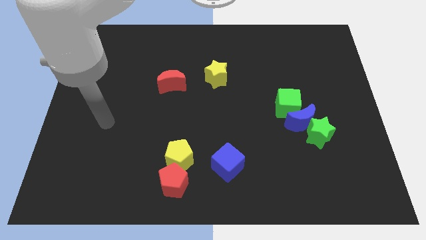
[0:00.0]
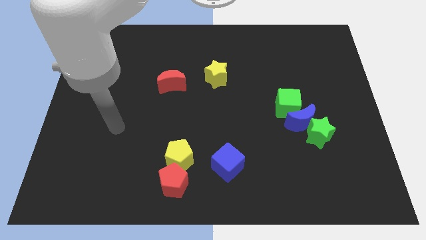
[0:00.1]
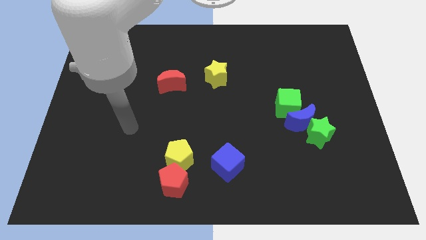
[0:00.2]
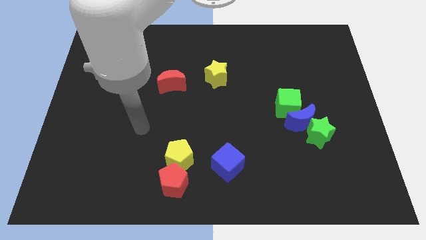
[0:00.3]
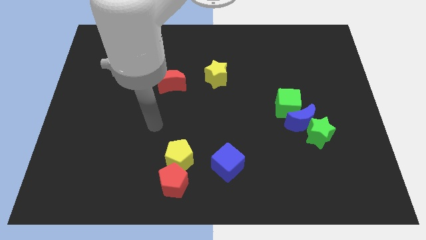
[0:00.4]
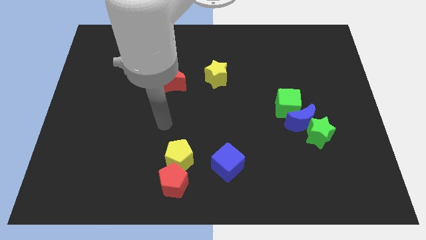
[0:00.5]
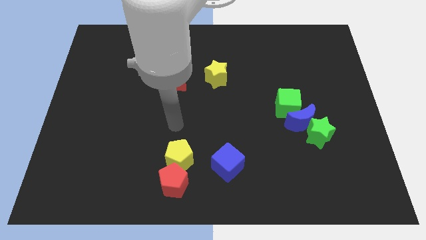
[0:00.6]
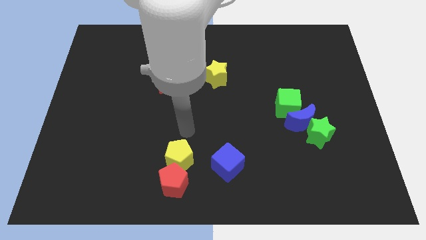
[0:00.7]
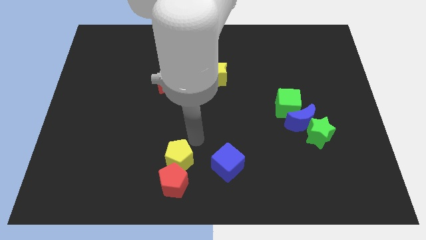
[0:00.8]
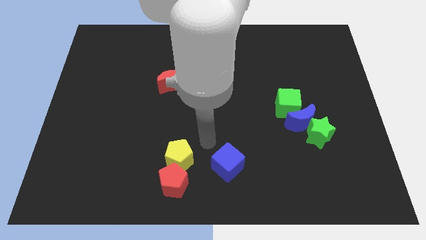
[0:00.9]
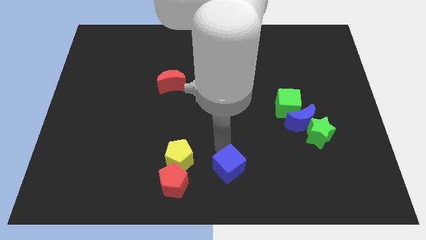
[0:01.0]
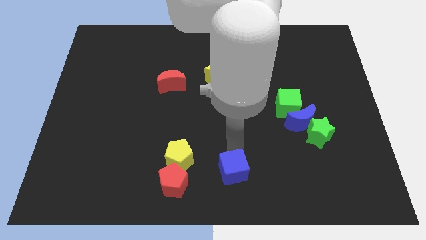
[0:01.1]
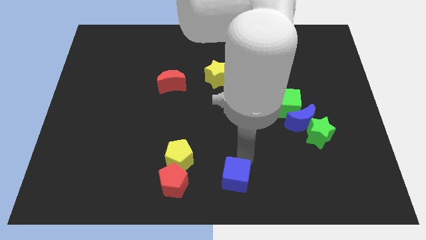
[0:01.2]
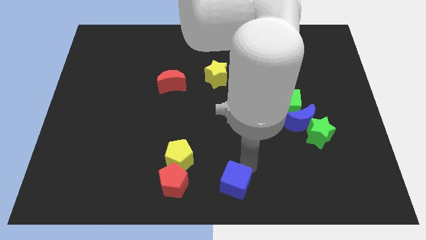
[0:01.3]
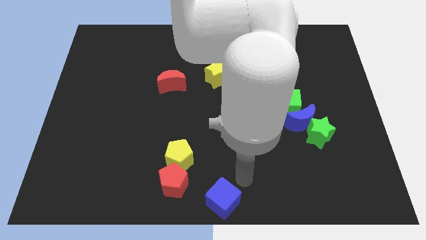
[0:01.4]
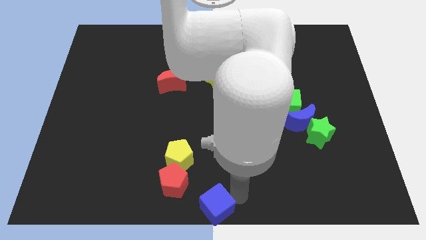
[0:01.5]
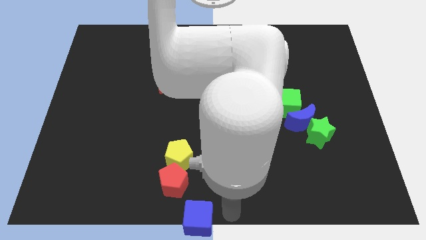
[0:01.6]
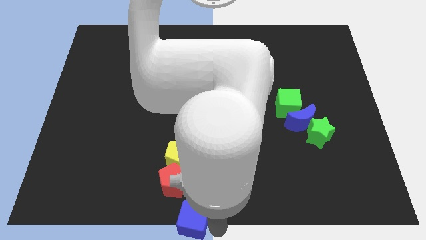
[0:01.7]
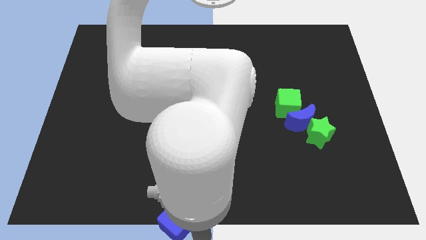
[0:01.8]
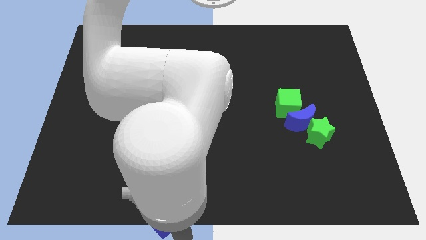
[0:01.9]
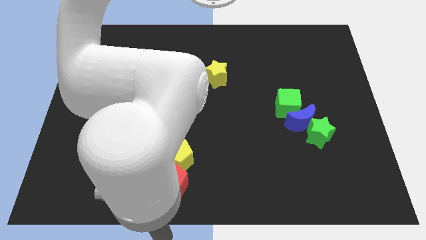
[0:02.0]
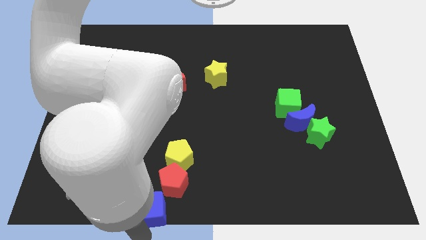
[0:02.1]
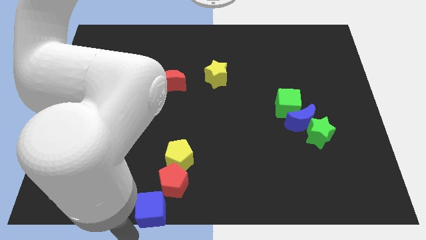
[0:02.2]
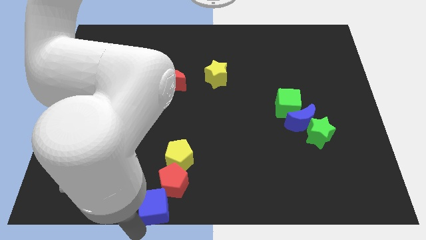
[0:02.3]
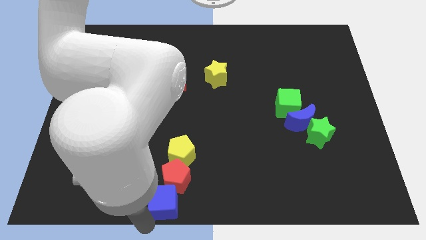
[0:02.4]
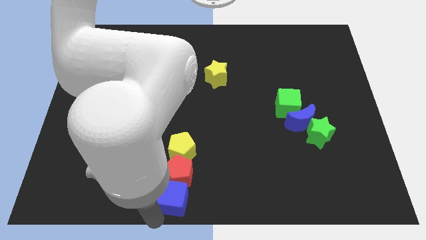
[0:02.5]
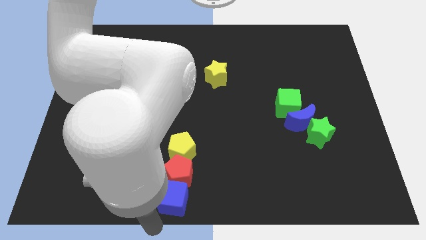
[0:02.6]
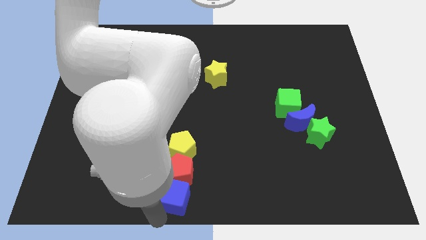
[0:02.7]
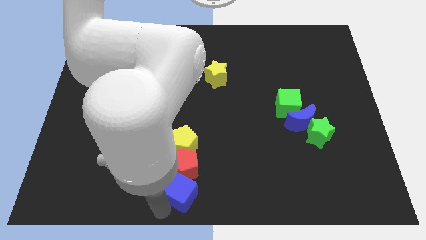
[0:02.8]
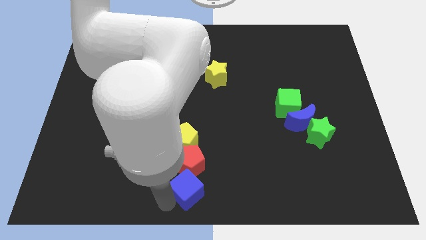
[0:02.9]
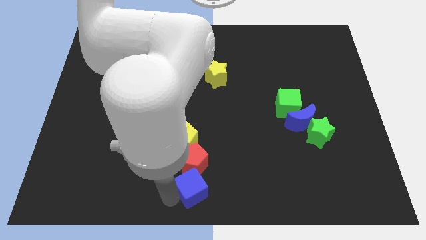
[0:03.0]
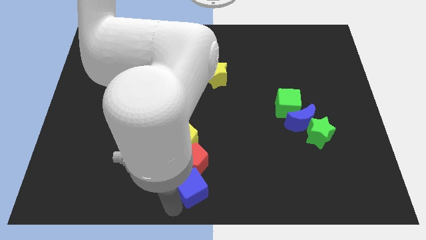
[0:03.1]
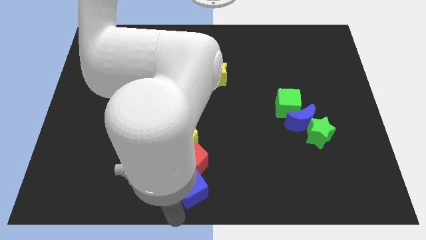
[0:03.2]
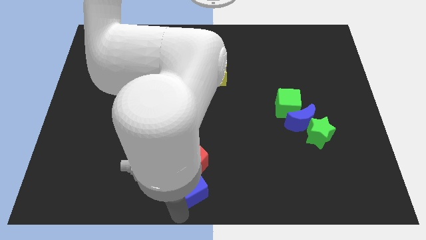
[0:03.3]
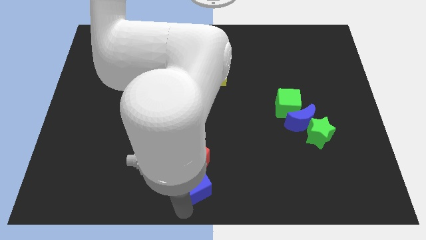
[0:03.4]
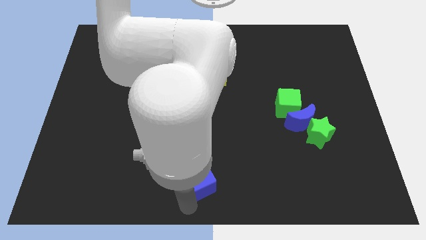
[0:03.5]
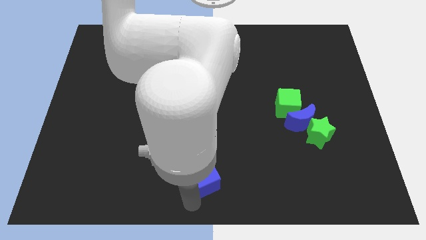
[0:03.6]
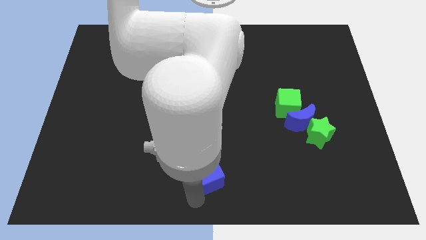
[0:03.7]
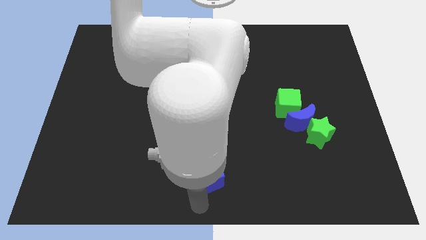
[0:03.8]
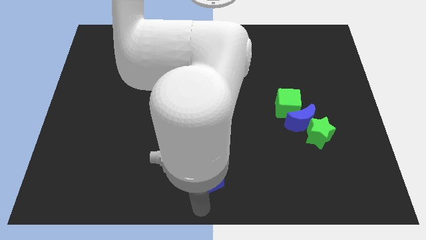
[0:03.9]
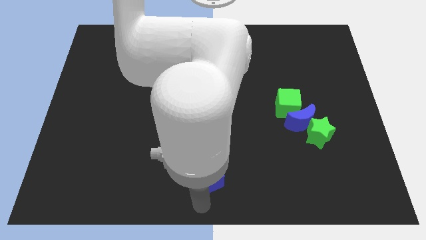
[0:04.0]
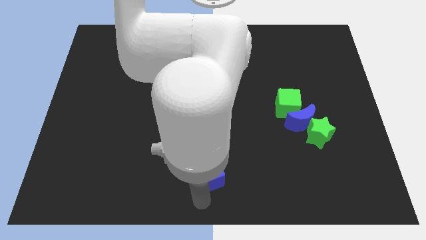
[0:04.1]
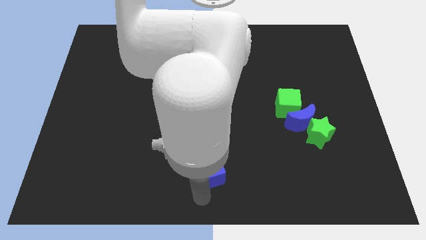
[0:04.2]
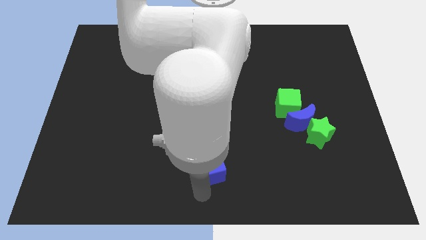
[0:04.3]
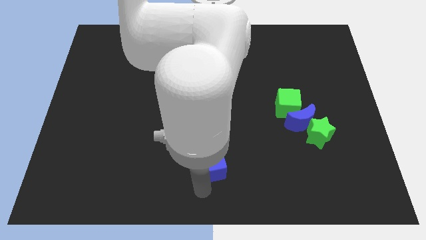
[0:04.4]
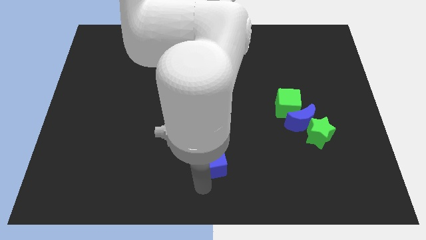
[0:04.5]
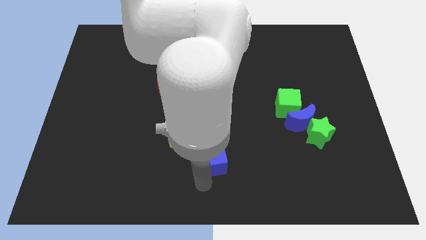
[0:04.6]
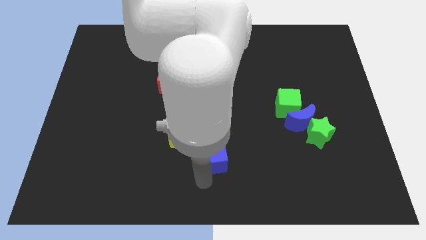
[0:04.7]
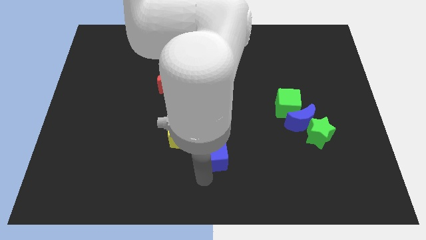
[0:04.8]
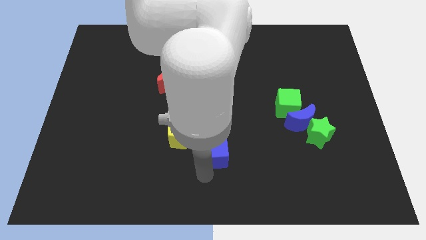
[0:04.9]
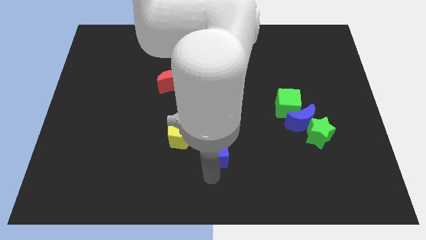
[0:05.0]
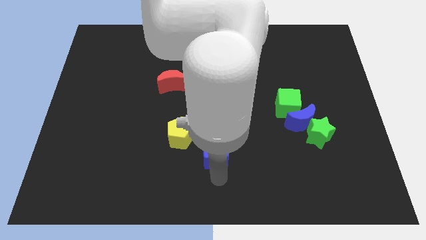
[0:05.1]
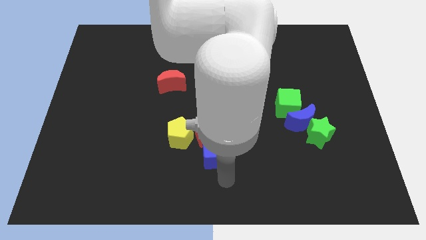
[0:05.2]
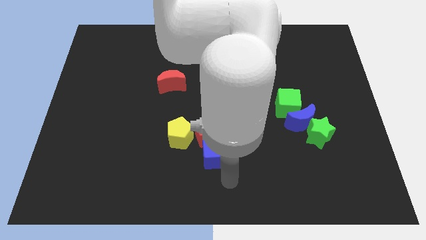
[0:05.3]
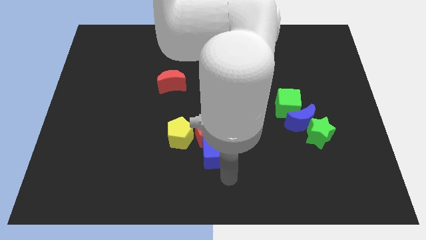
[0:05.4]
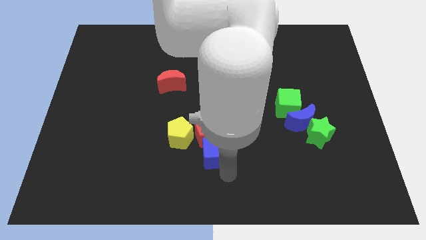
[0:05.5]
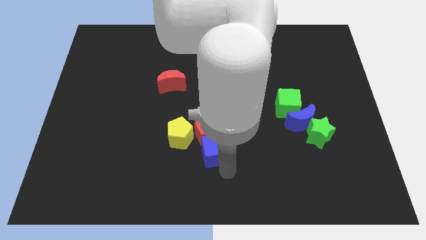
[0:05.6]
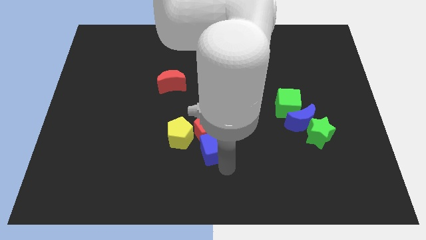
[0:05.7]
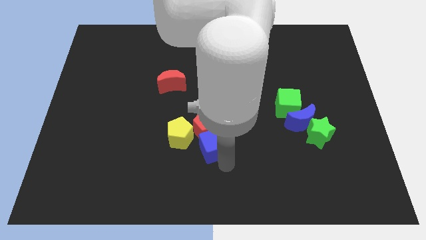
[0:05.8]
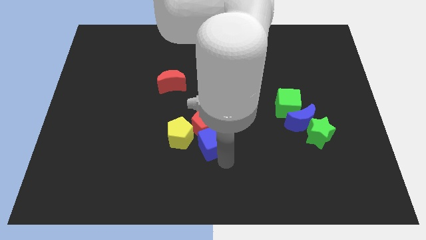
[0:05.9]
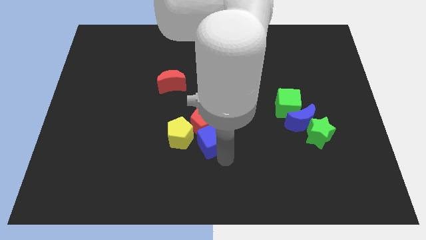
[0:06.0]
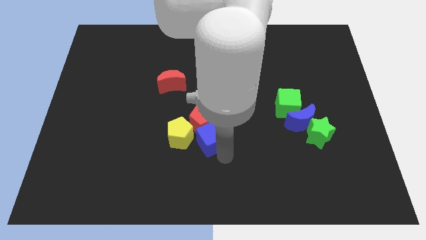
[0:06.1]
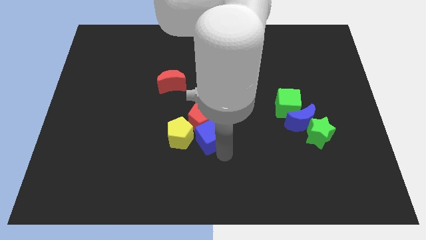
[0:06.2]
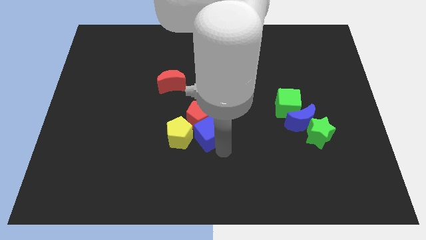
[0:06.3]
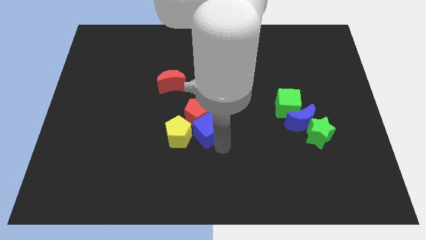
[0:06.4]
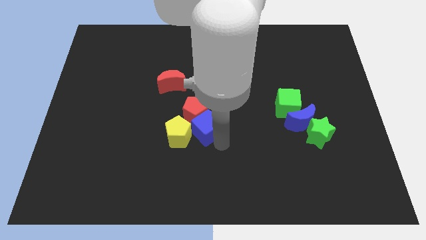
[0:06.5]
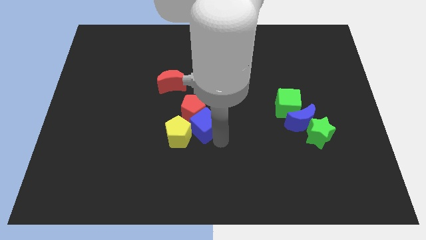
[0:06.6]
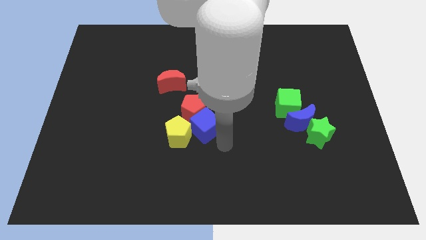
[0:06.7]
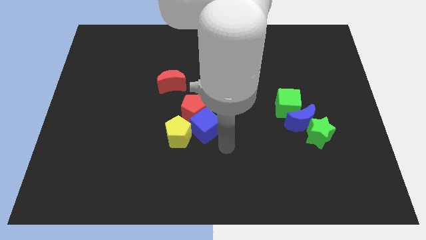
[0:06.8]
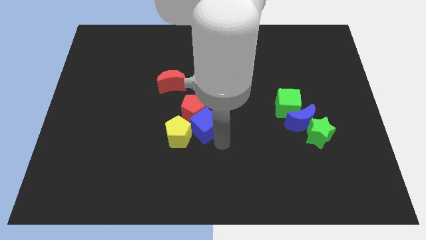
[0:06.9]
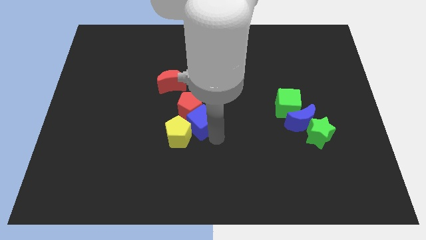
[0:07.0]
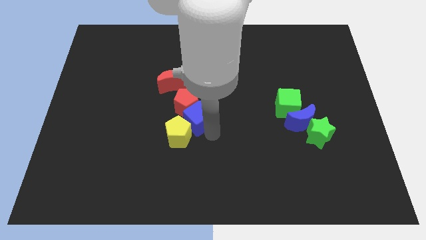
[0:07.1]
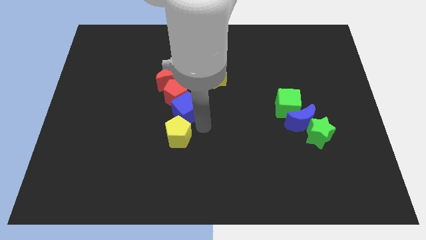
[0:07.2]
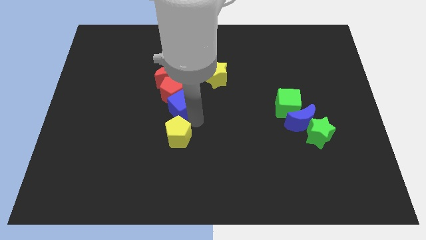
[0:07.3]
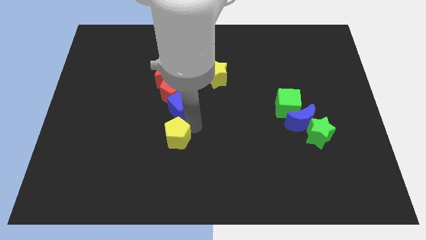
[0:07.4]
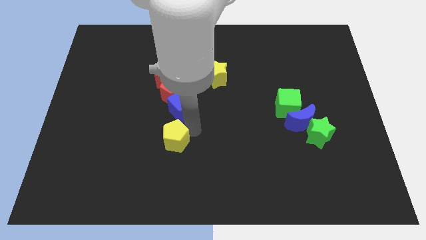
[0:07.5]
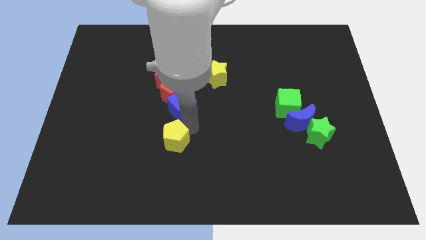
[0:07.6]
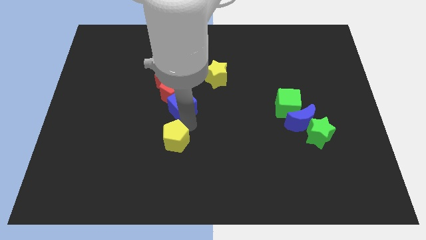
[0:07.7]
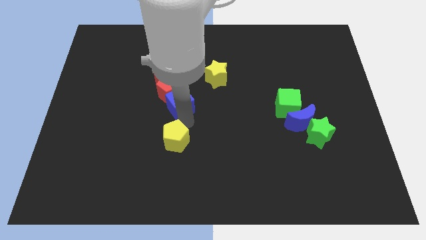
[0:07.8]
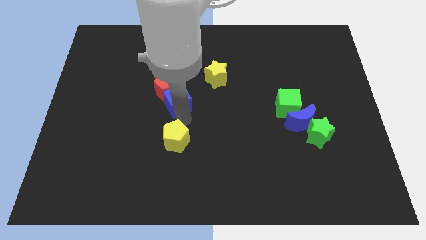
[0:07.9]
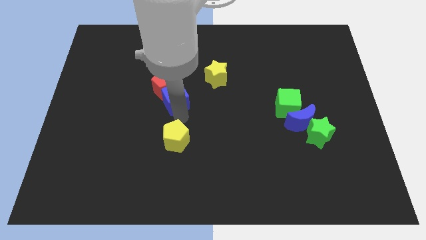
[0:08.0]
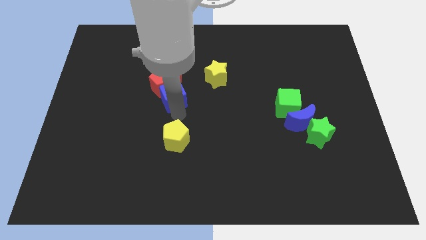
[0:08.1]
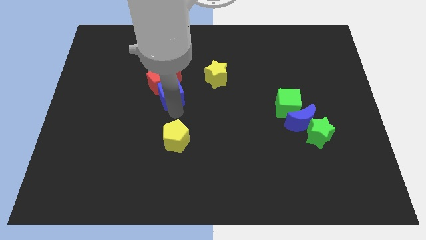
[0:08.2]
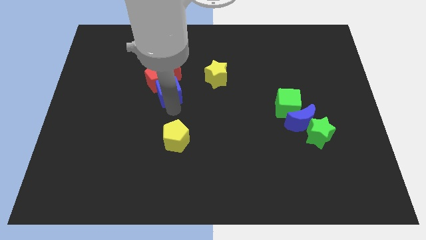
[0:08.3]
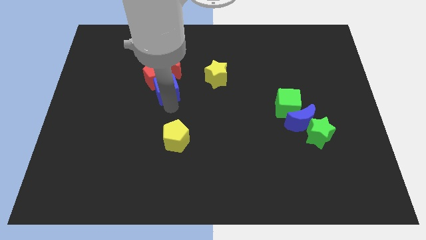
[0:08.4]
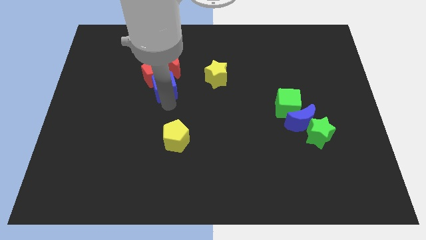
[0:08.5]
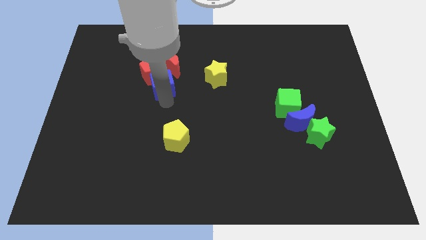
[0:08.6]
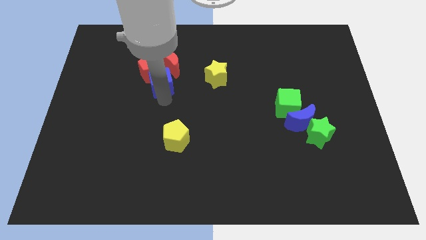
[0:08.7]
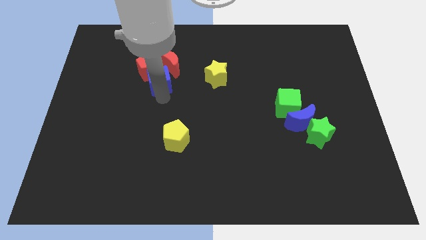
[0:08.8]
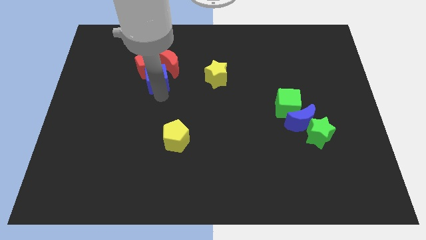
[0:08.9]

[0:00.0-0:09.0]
slide the blue cube close to the red moon
